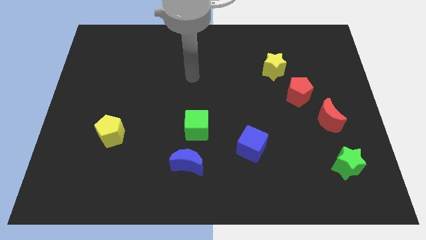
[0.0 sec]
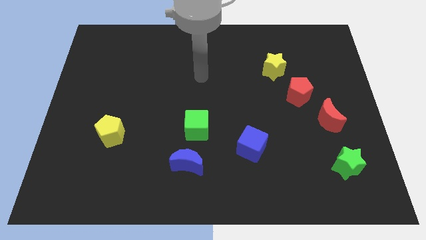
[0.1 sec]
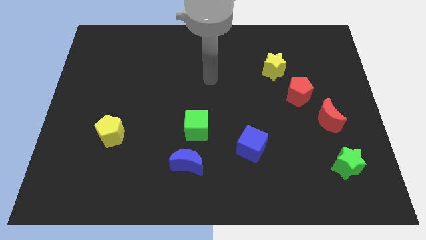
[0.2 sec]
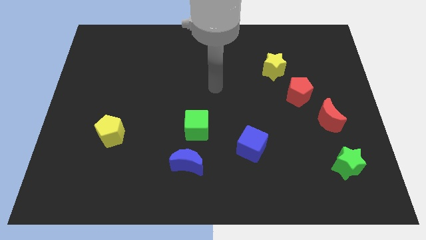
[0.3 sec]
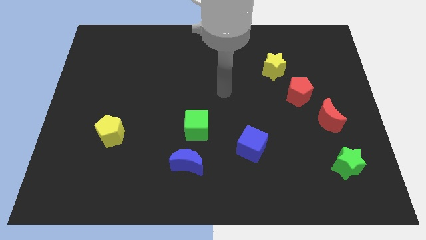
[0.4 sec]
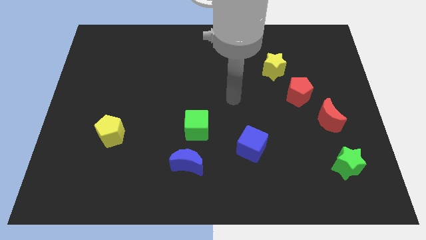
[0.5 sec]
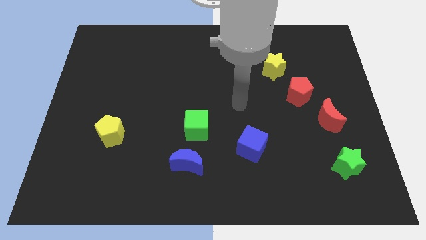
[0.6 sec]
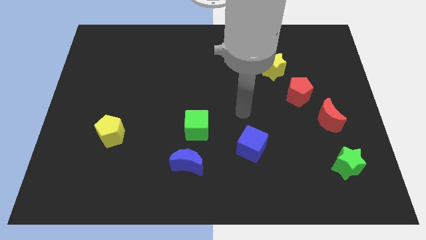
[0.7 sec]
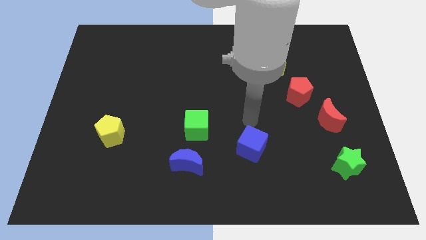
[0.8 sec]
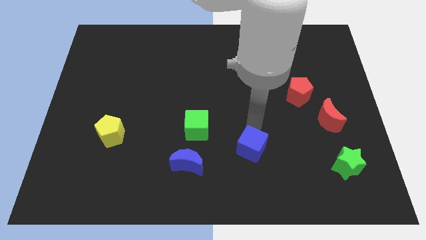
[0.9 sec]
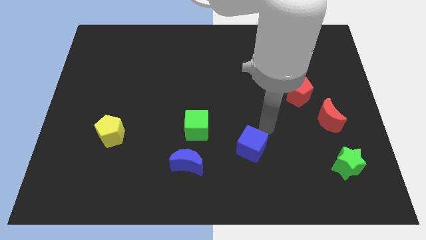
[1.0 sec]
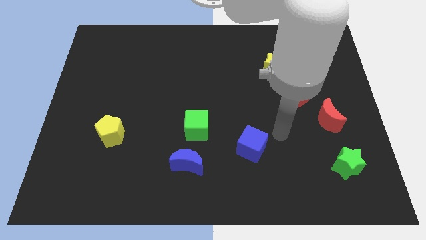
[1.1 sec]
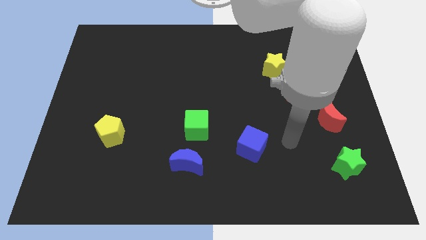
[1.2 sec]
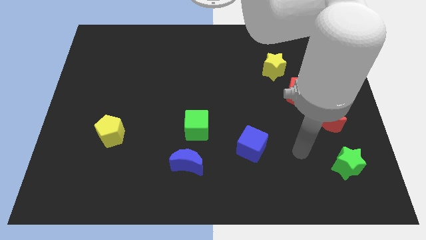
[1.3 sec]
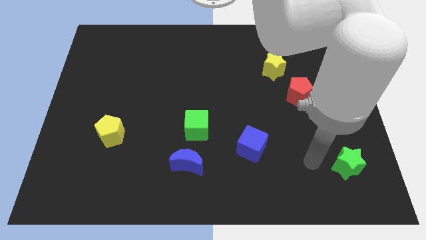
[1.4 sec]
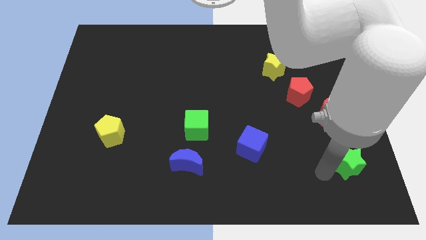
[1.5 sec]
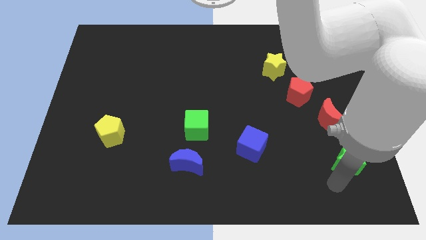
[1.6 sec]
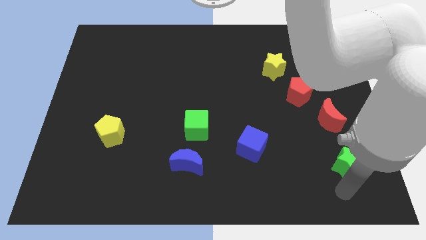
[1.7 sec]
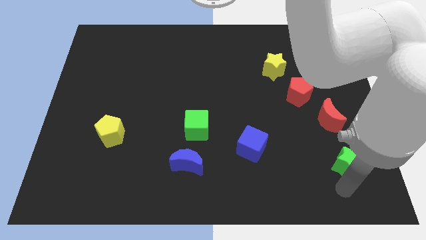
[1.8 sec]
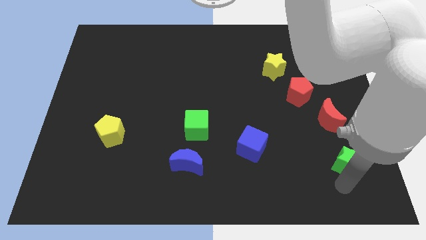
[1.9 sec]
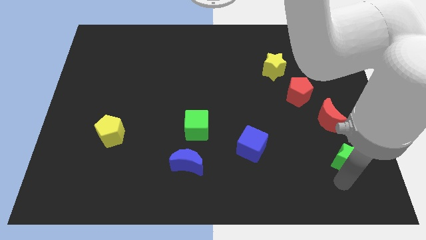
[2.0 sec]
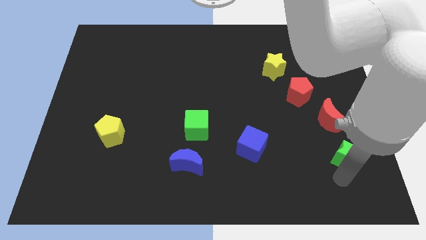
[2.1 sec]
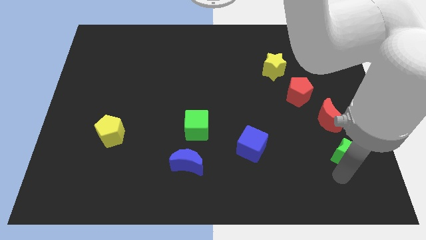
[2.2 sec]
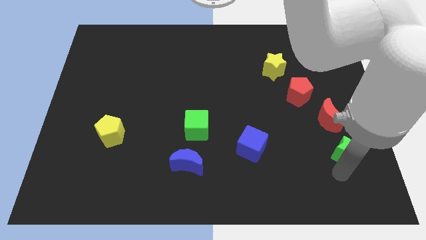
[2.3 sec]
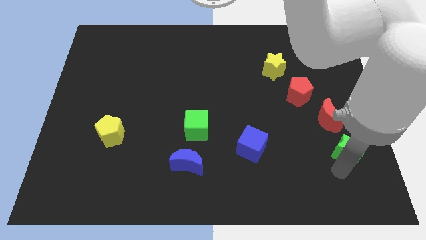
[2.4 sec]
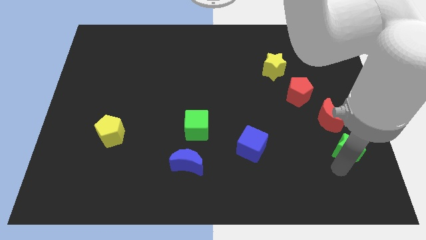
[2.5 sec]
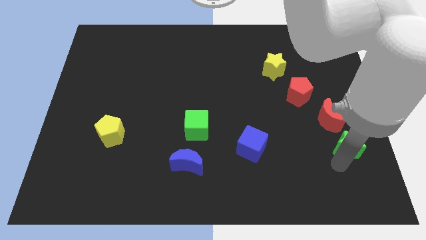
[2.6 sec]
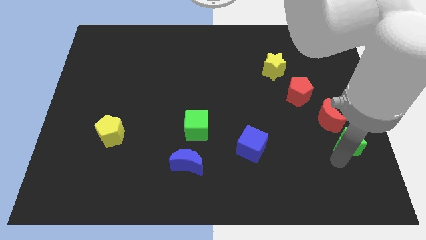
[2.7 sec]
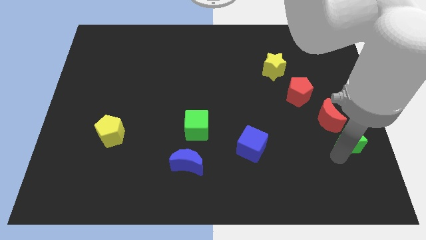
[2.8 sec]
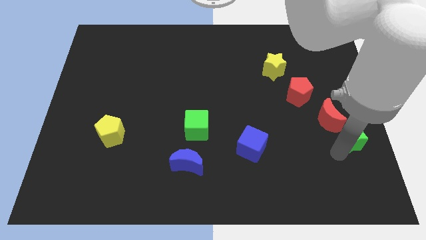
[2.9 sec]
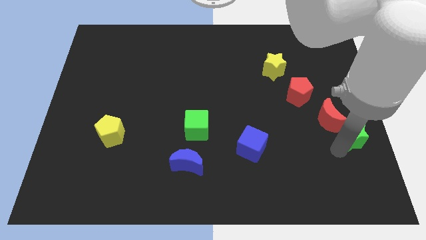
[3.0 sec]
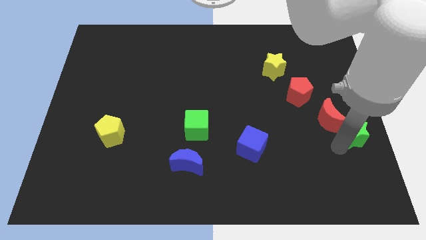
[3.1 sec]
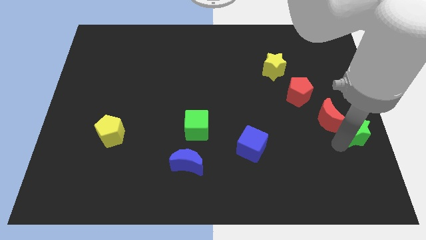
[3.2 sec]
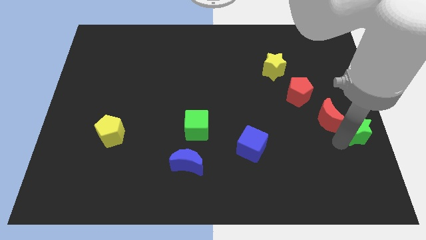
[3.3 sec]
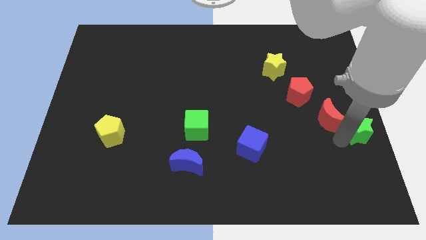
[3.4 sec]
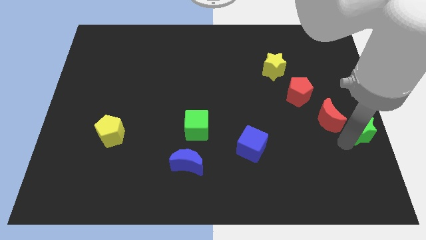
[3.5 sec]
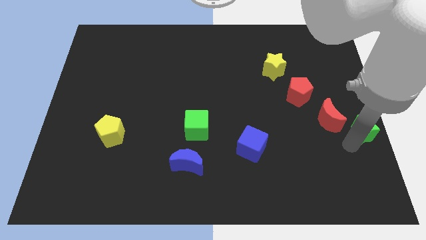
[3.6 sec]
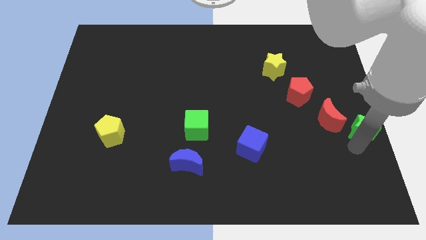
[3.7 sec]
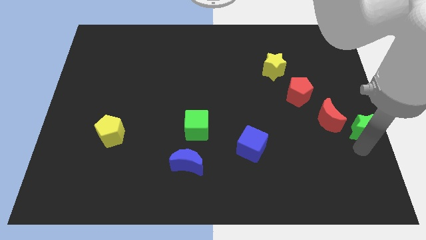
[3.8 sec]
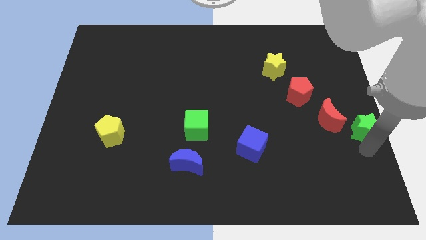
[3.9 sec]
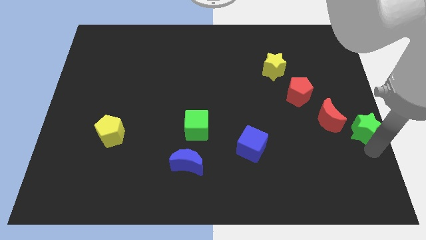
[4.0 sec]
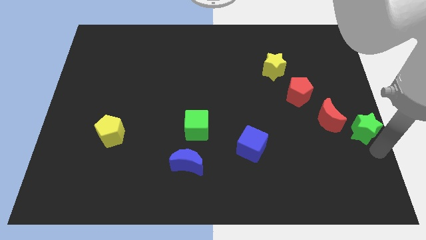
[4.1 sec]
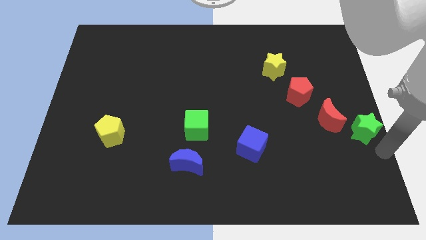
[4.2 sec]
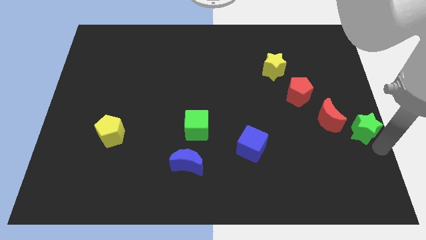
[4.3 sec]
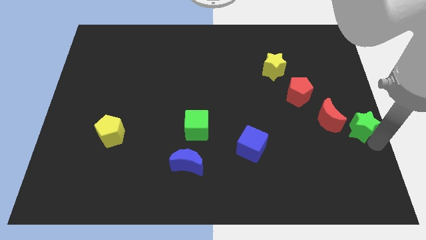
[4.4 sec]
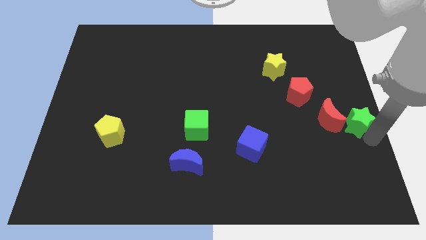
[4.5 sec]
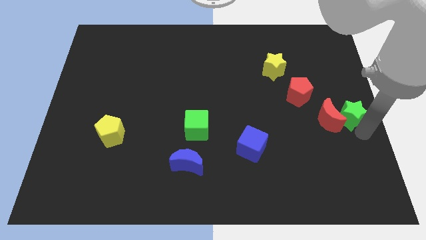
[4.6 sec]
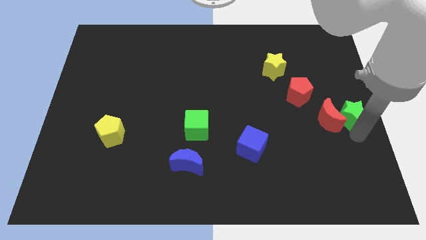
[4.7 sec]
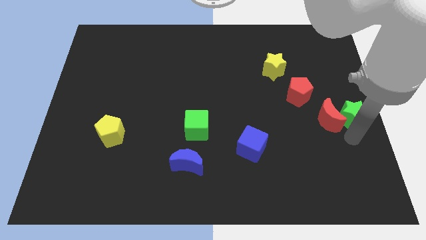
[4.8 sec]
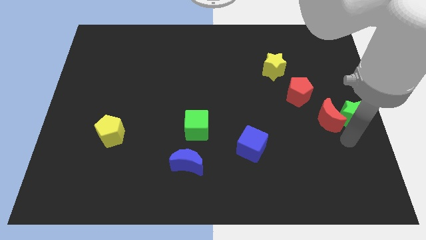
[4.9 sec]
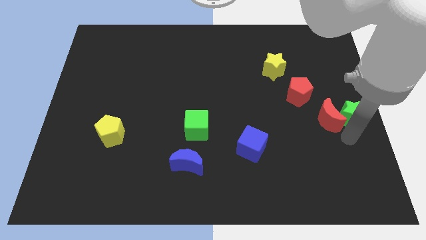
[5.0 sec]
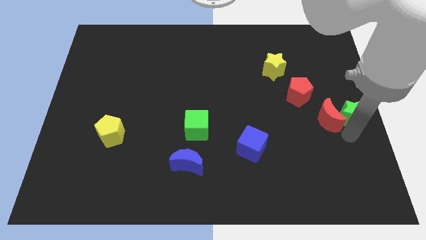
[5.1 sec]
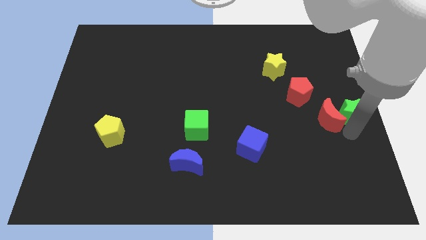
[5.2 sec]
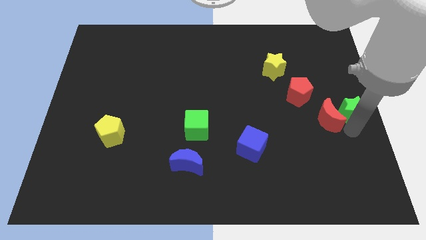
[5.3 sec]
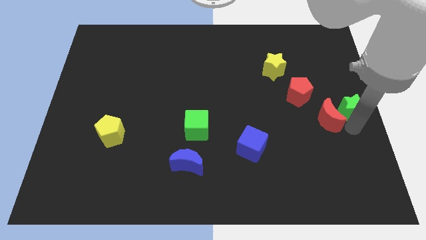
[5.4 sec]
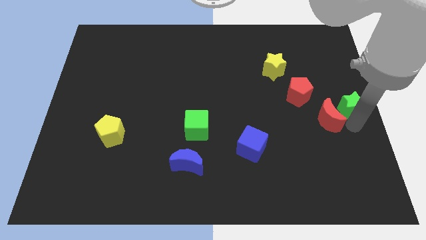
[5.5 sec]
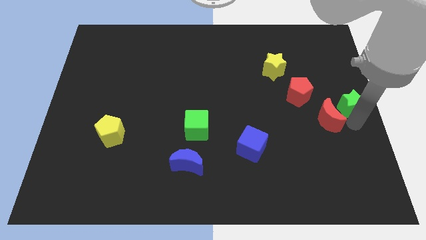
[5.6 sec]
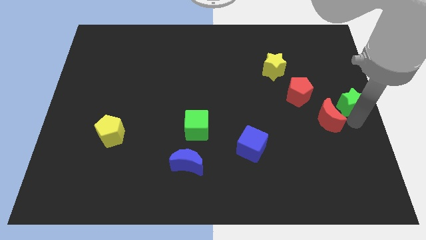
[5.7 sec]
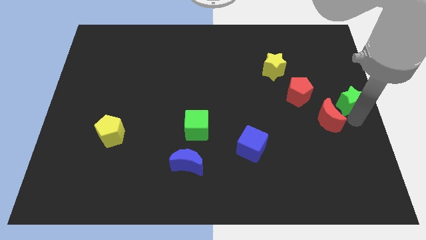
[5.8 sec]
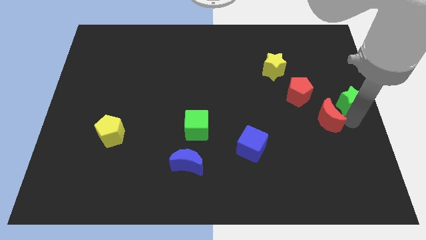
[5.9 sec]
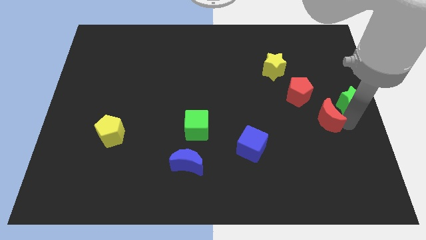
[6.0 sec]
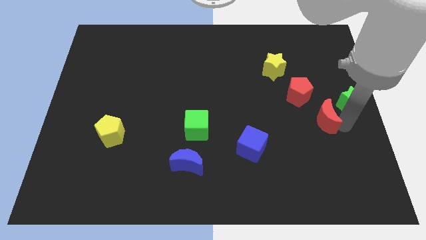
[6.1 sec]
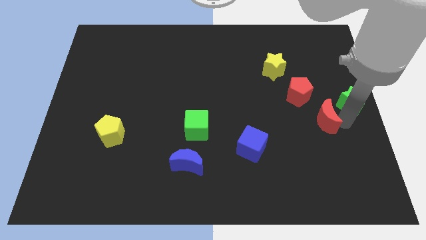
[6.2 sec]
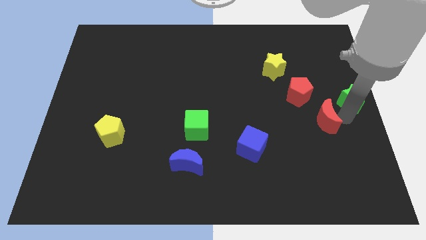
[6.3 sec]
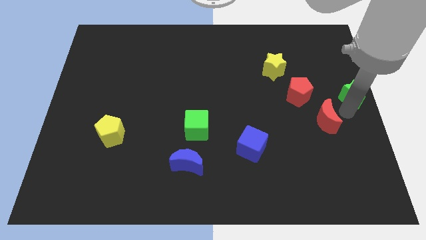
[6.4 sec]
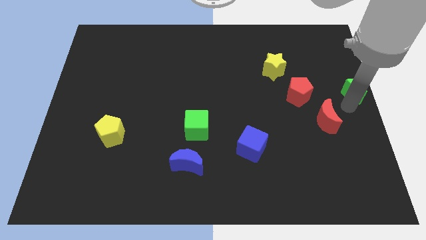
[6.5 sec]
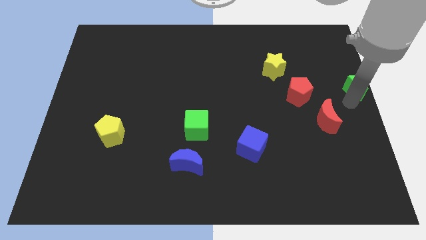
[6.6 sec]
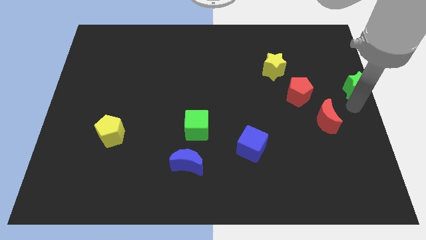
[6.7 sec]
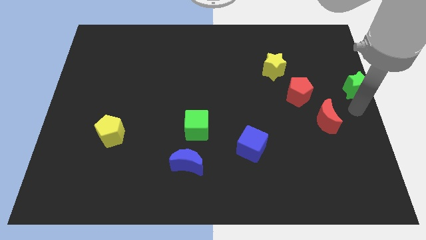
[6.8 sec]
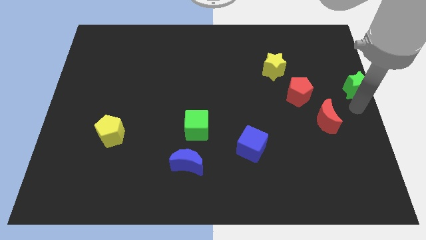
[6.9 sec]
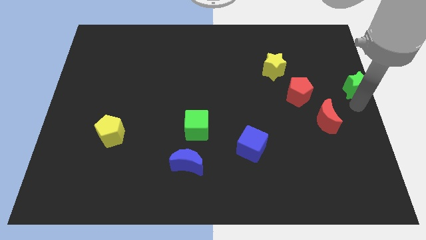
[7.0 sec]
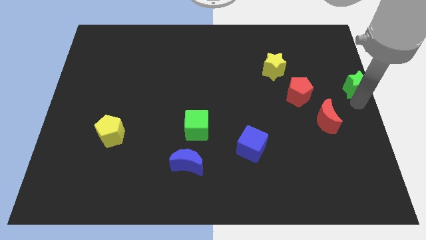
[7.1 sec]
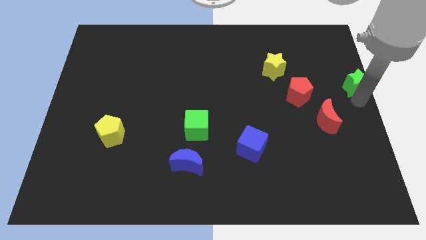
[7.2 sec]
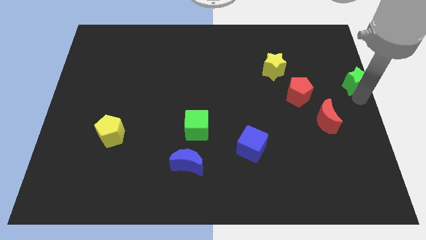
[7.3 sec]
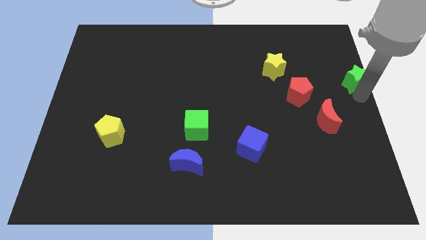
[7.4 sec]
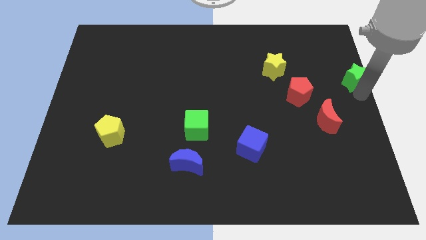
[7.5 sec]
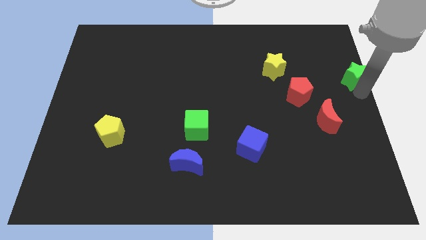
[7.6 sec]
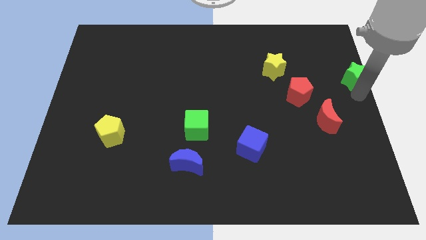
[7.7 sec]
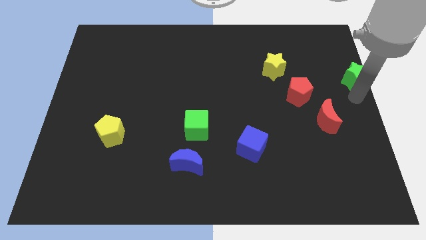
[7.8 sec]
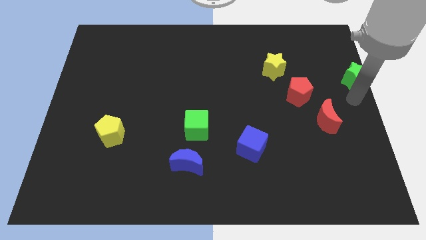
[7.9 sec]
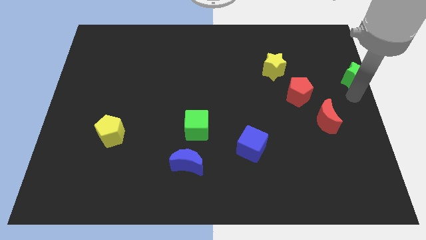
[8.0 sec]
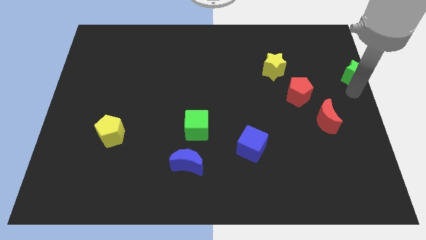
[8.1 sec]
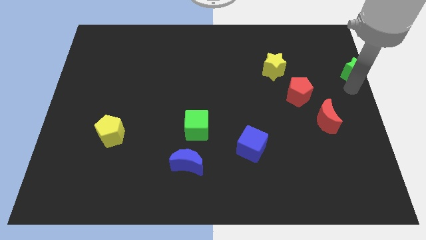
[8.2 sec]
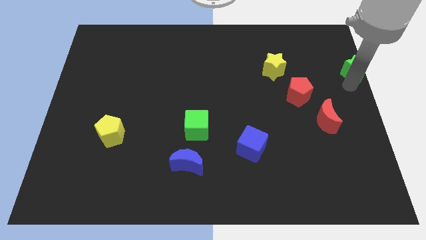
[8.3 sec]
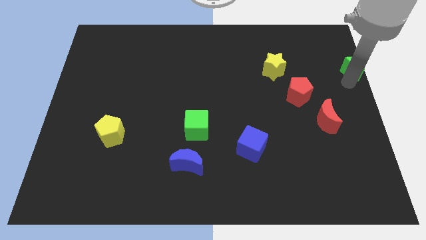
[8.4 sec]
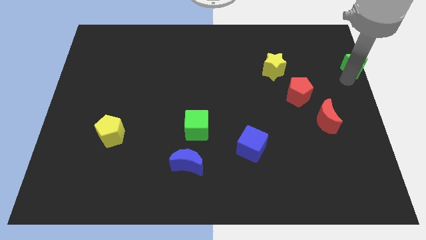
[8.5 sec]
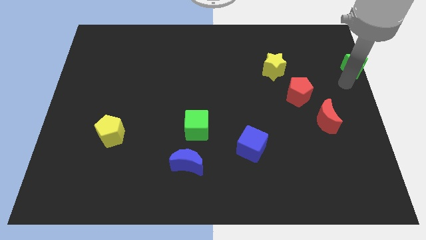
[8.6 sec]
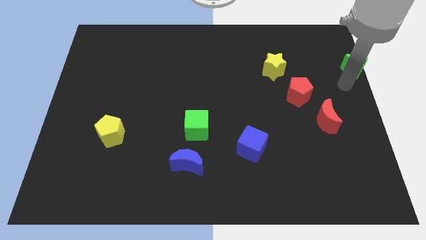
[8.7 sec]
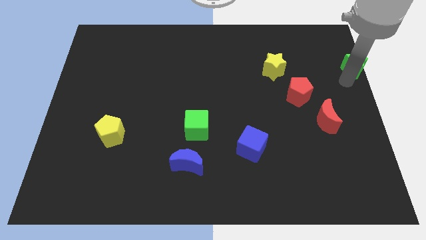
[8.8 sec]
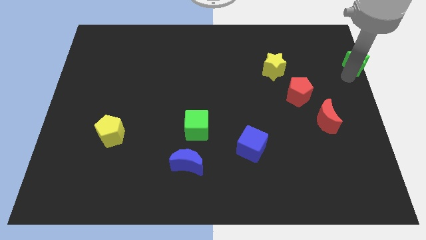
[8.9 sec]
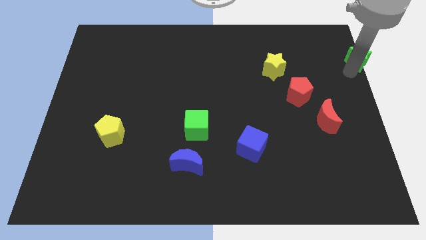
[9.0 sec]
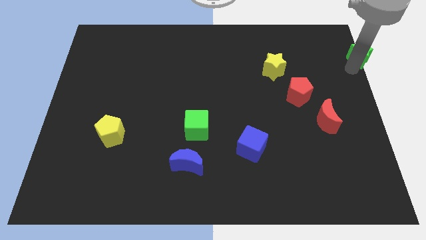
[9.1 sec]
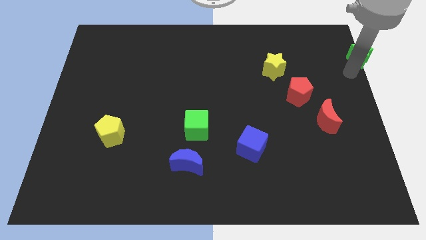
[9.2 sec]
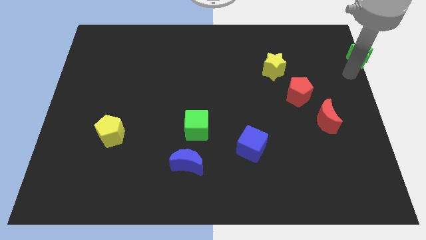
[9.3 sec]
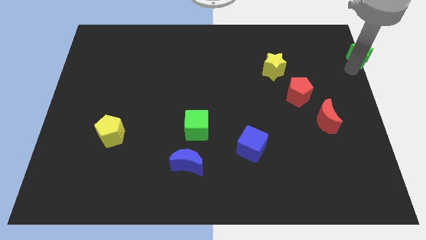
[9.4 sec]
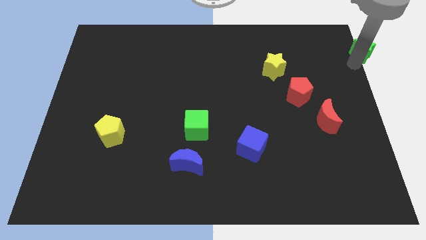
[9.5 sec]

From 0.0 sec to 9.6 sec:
push the green star to the top right corner
